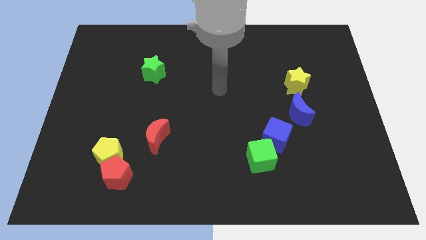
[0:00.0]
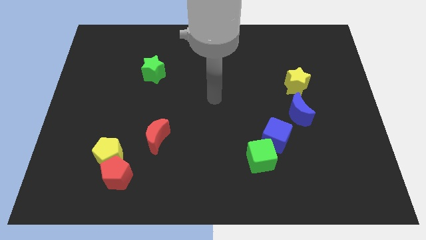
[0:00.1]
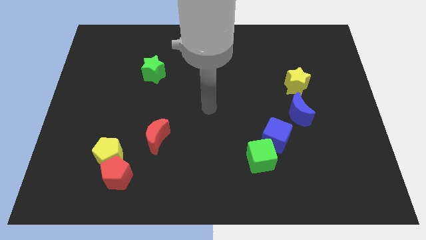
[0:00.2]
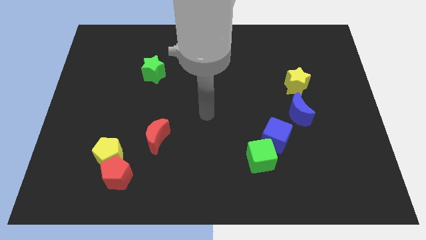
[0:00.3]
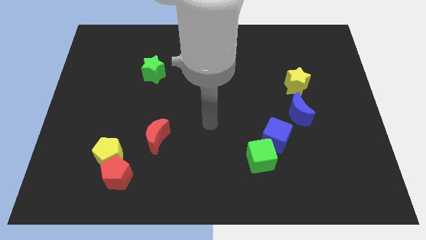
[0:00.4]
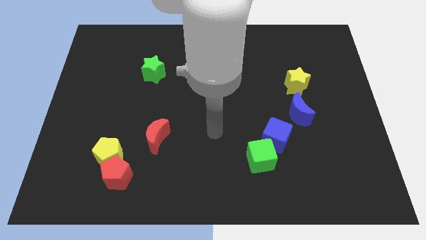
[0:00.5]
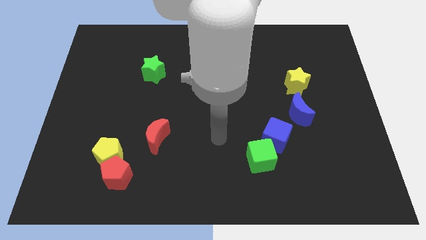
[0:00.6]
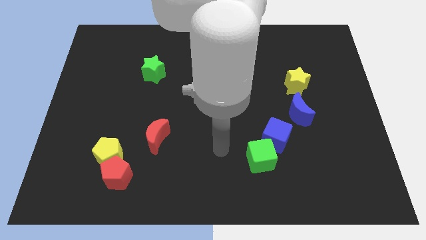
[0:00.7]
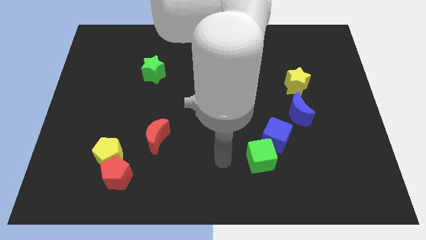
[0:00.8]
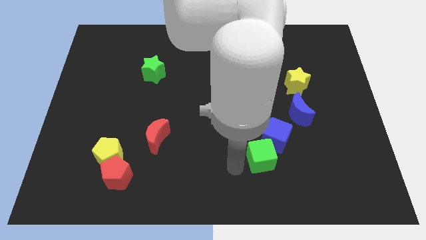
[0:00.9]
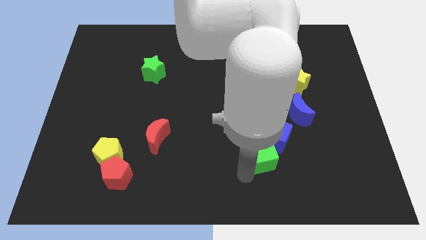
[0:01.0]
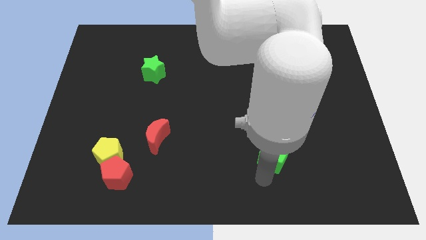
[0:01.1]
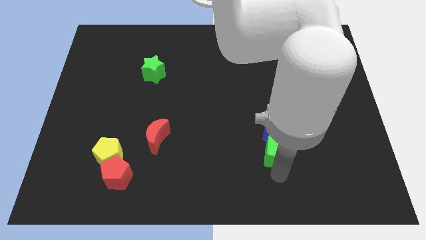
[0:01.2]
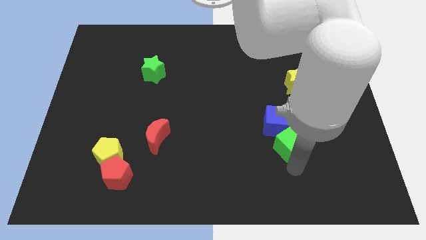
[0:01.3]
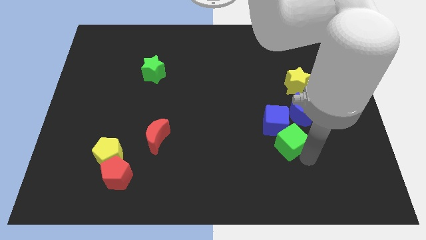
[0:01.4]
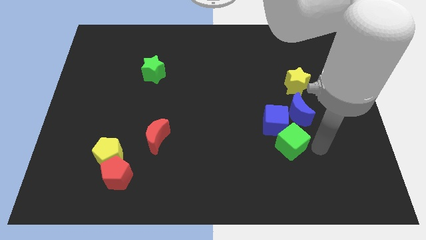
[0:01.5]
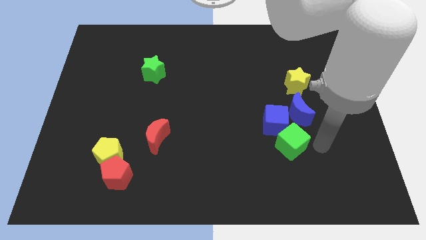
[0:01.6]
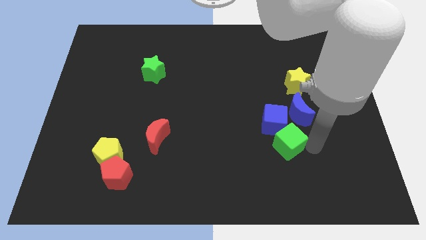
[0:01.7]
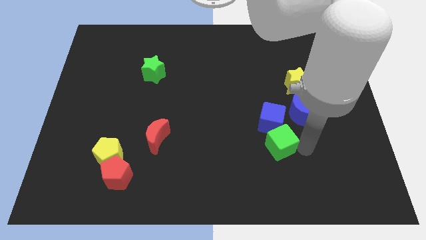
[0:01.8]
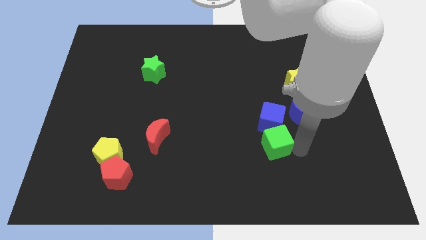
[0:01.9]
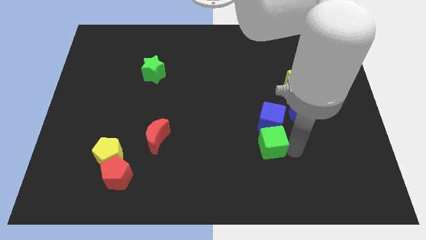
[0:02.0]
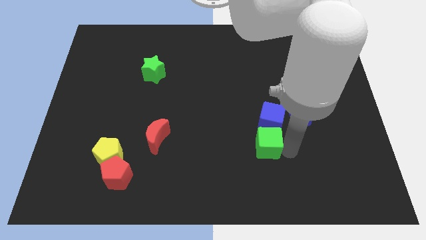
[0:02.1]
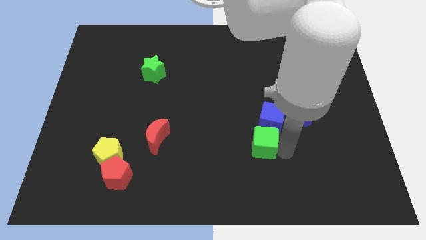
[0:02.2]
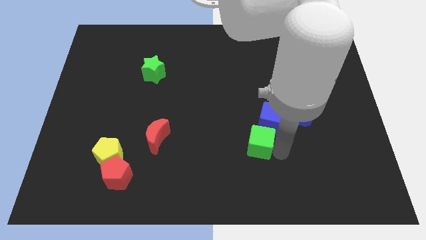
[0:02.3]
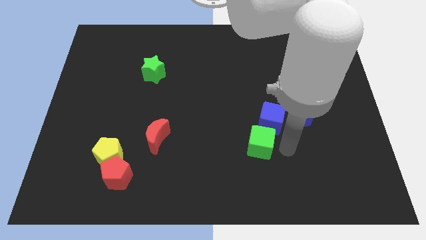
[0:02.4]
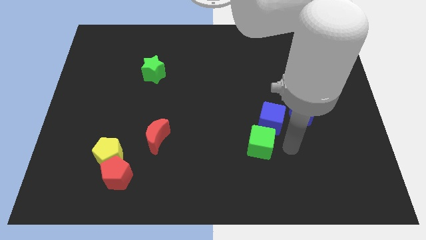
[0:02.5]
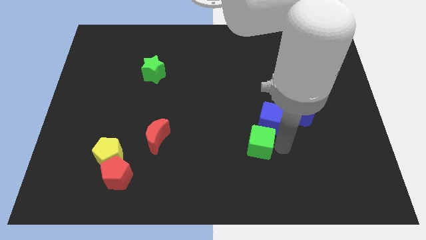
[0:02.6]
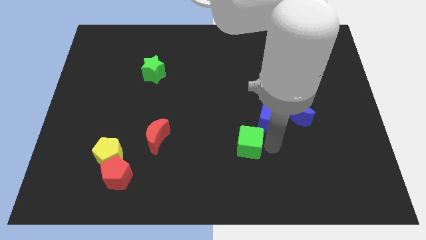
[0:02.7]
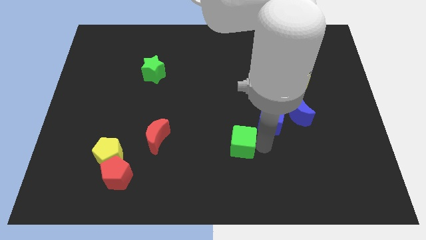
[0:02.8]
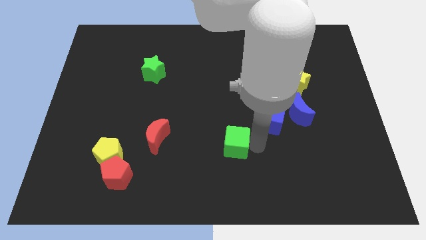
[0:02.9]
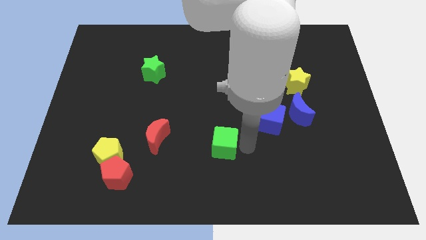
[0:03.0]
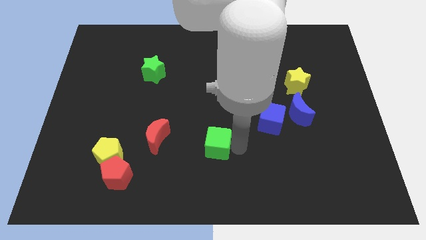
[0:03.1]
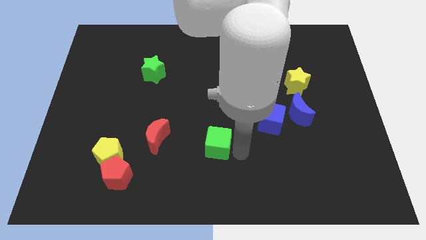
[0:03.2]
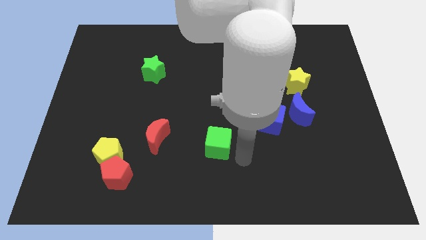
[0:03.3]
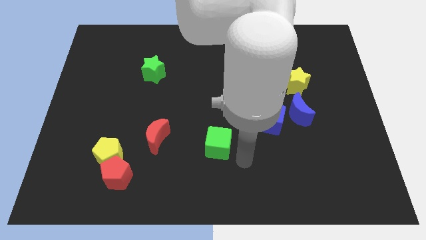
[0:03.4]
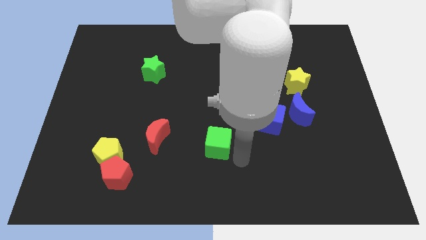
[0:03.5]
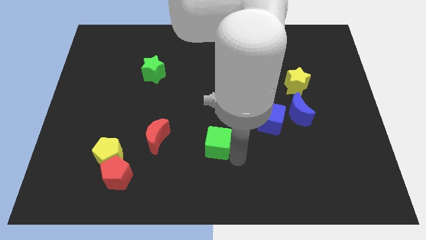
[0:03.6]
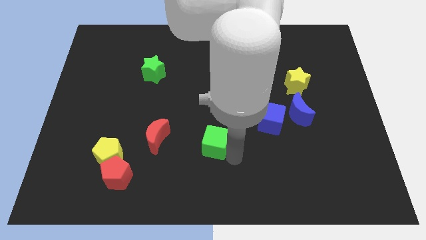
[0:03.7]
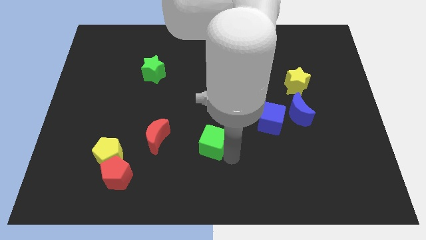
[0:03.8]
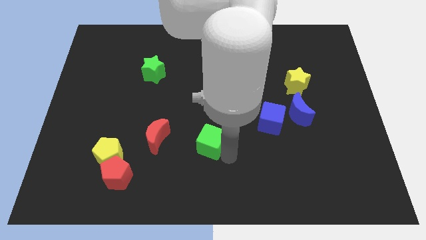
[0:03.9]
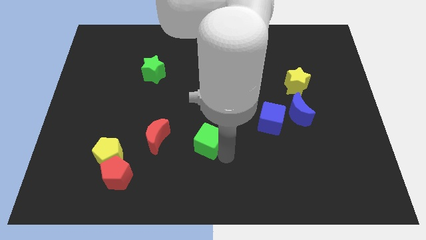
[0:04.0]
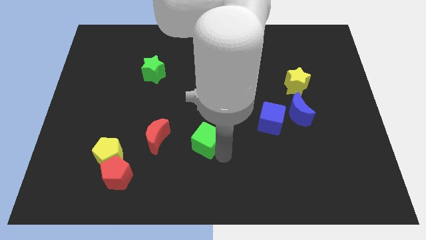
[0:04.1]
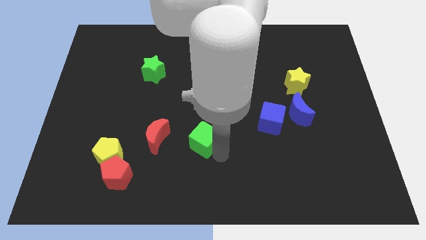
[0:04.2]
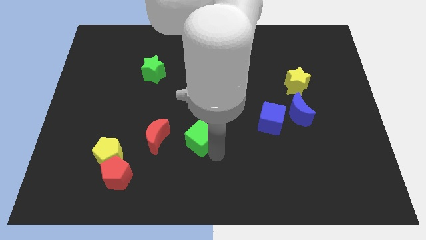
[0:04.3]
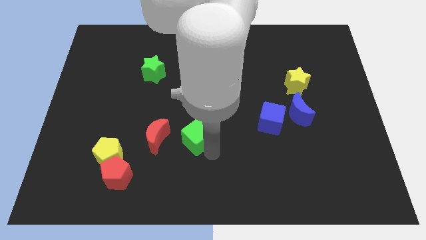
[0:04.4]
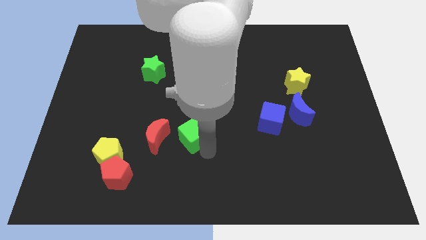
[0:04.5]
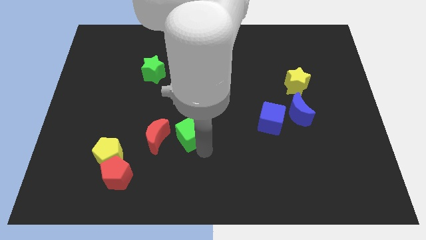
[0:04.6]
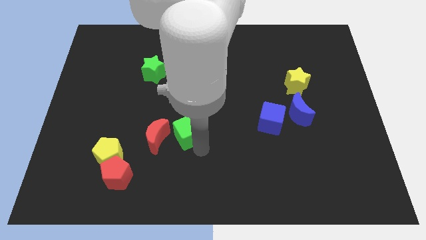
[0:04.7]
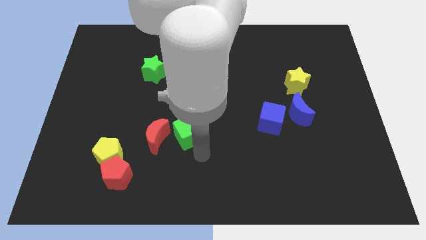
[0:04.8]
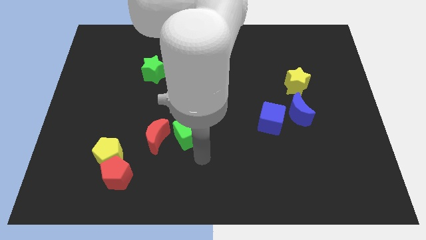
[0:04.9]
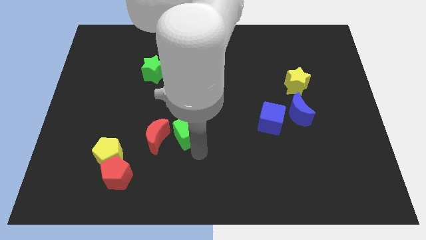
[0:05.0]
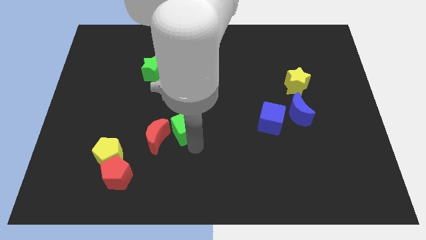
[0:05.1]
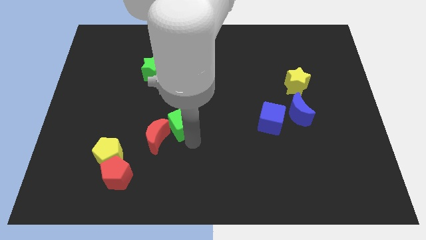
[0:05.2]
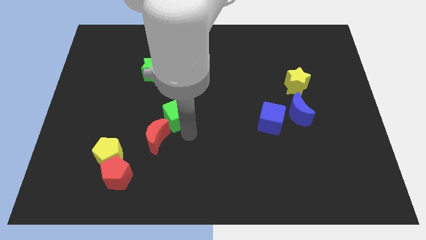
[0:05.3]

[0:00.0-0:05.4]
move the green cube to the top side of the red moon

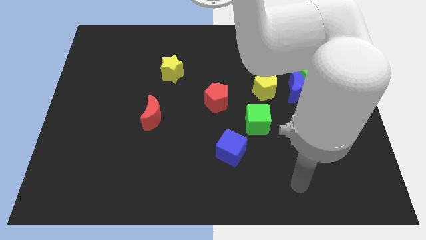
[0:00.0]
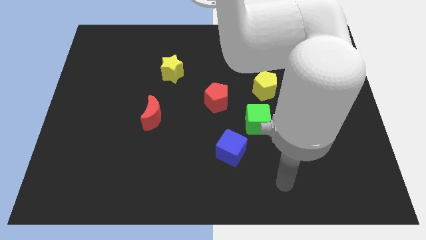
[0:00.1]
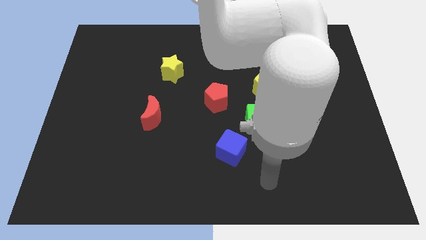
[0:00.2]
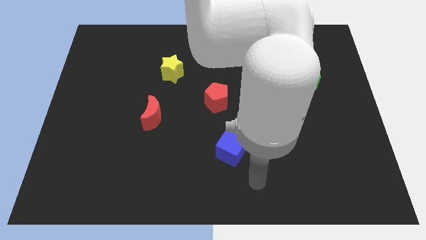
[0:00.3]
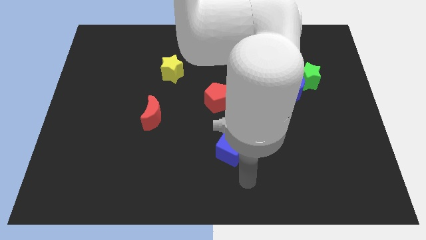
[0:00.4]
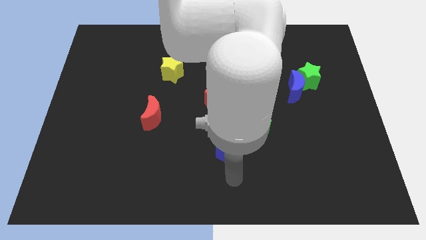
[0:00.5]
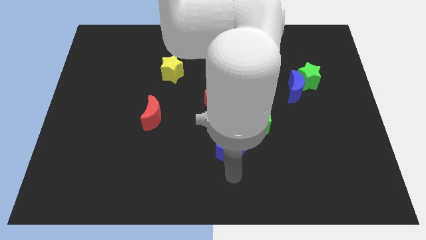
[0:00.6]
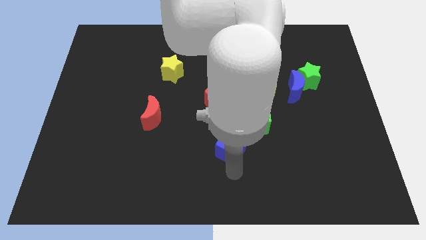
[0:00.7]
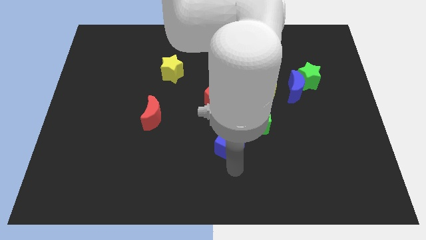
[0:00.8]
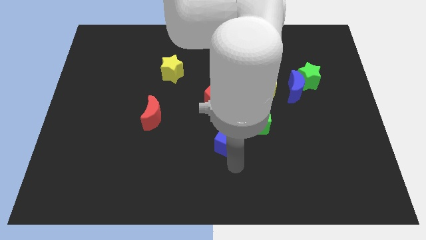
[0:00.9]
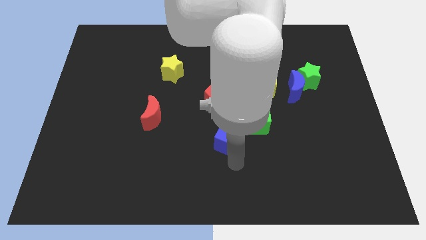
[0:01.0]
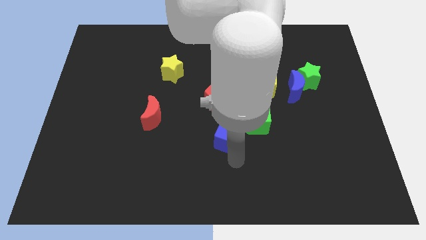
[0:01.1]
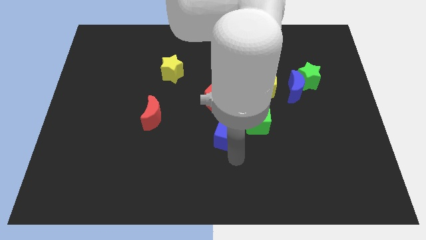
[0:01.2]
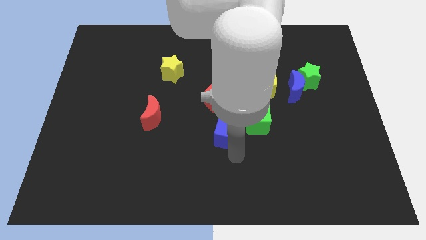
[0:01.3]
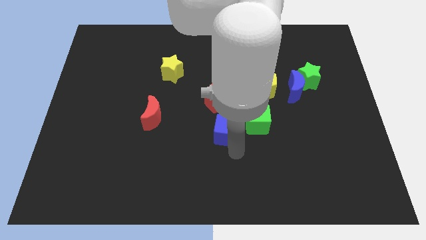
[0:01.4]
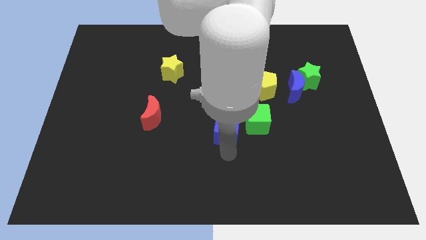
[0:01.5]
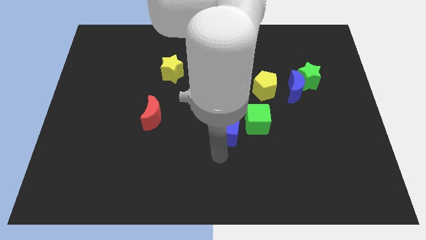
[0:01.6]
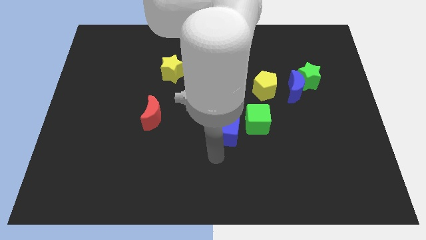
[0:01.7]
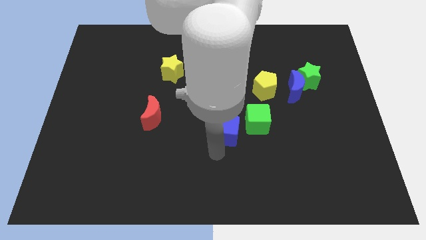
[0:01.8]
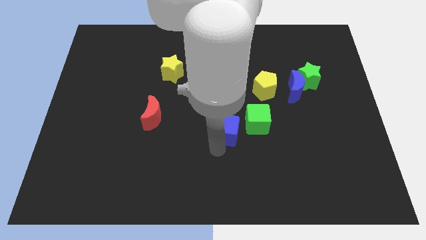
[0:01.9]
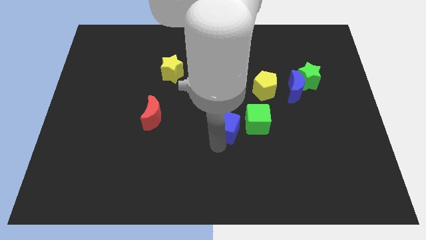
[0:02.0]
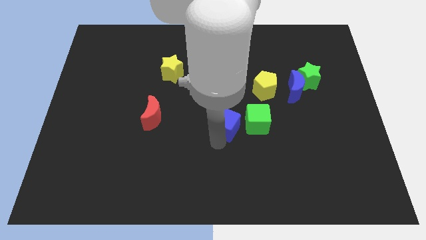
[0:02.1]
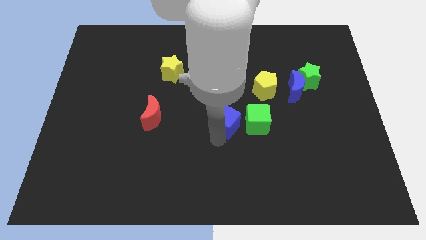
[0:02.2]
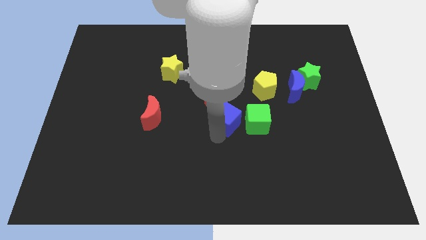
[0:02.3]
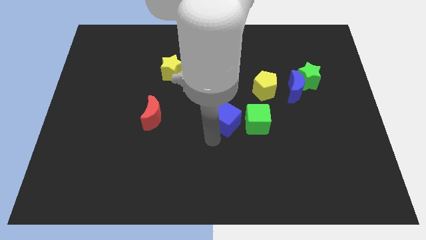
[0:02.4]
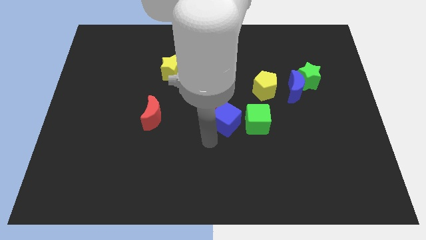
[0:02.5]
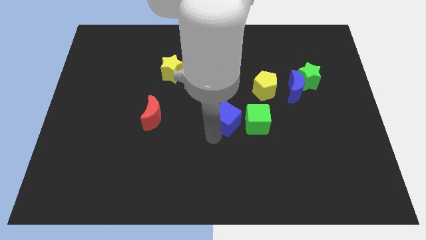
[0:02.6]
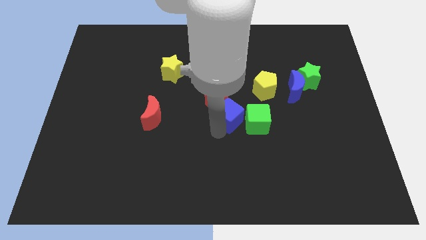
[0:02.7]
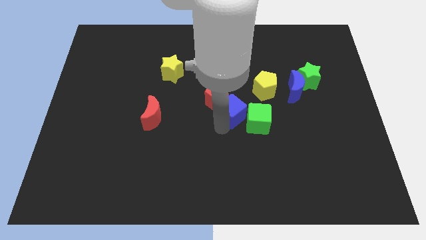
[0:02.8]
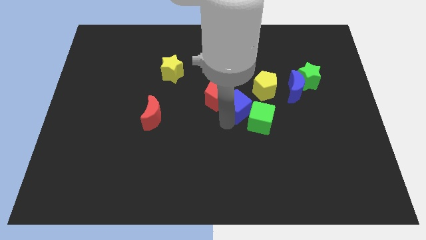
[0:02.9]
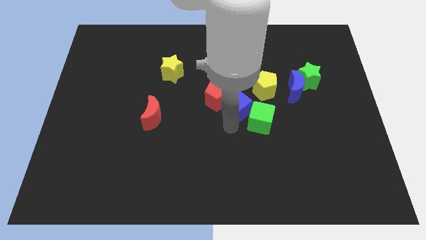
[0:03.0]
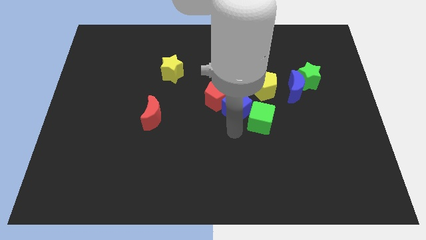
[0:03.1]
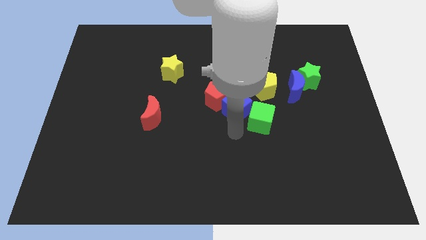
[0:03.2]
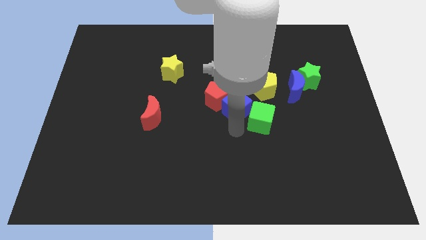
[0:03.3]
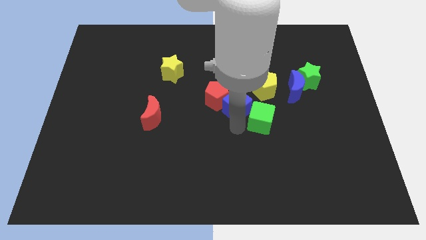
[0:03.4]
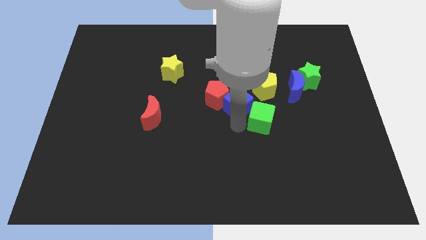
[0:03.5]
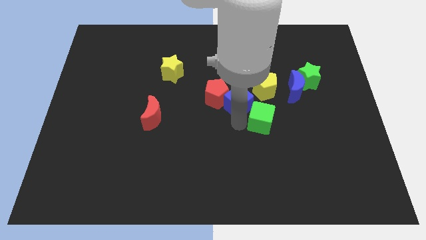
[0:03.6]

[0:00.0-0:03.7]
push the blue cube to the left side of the yellow pentagon
